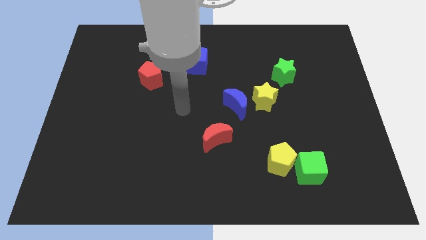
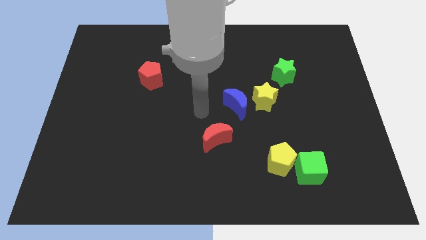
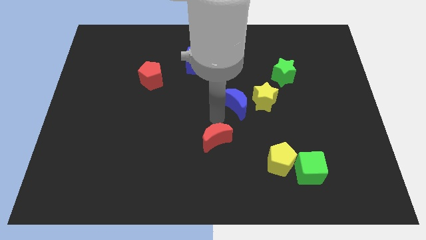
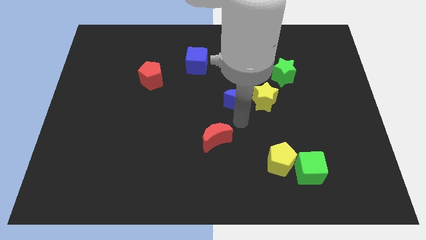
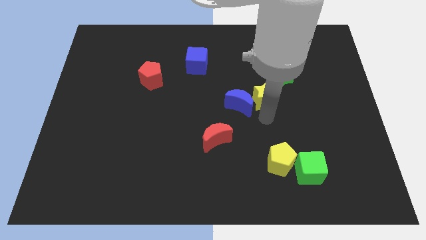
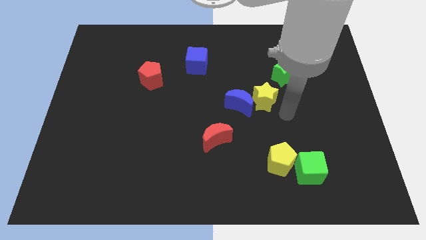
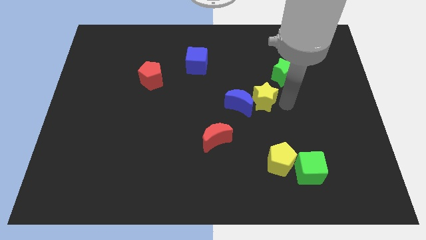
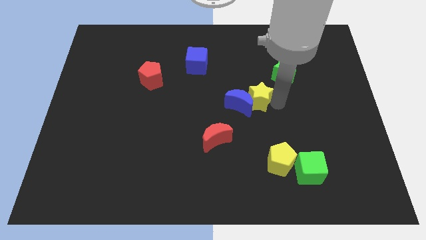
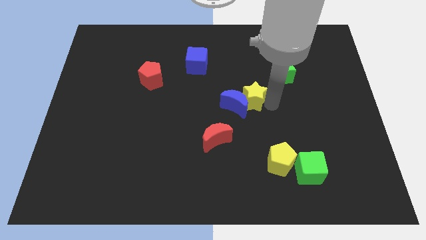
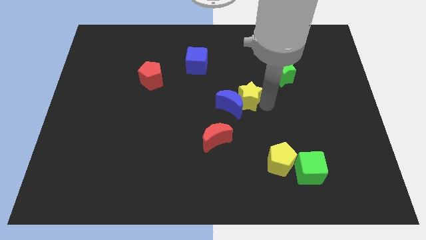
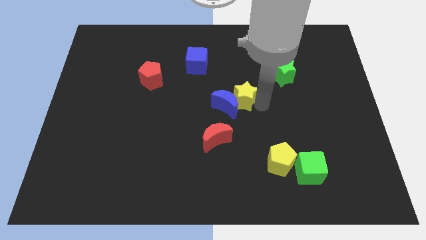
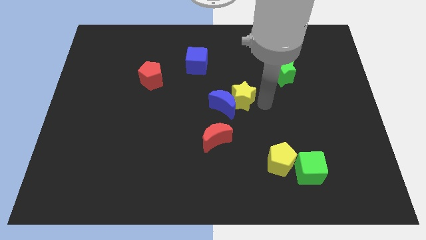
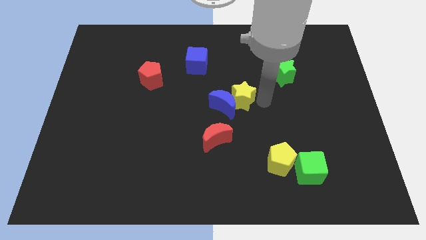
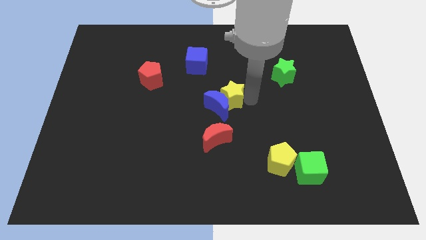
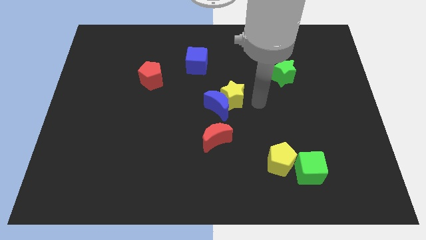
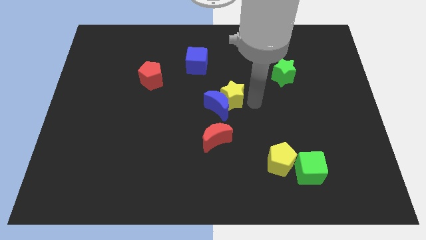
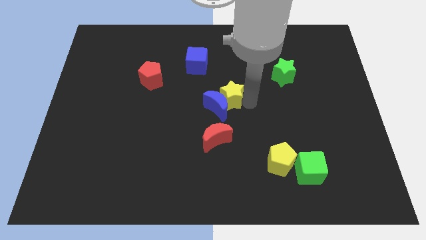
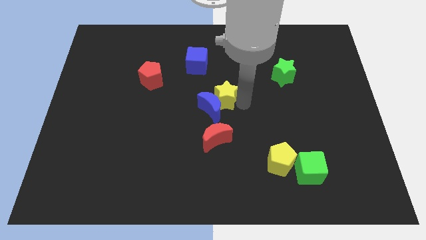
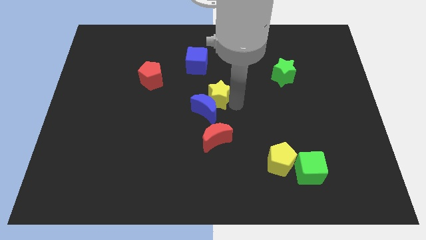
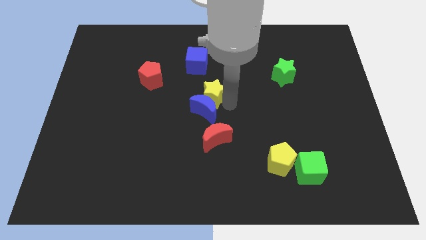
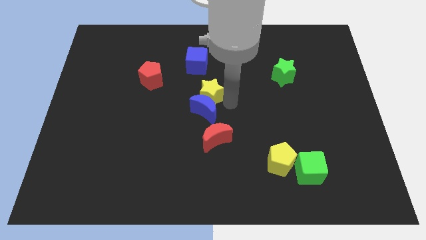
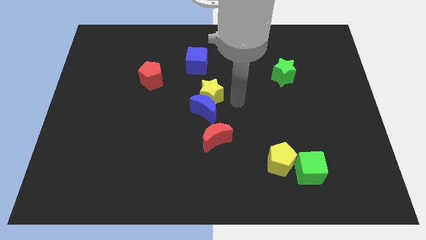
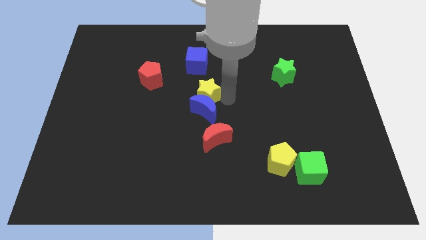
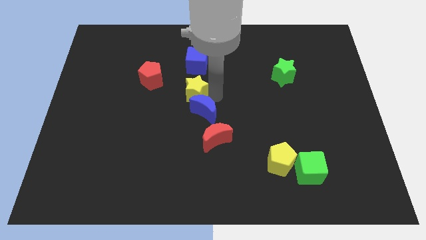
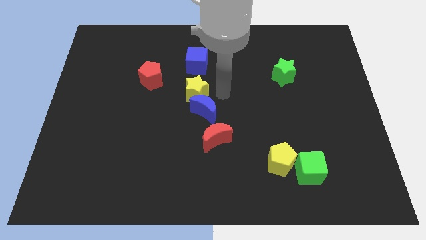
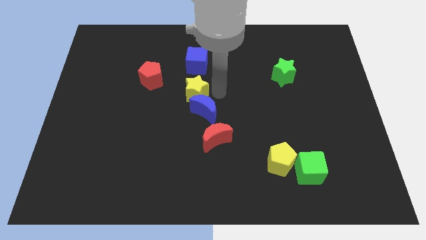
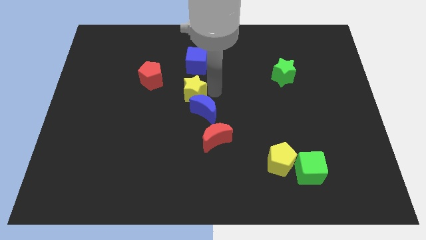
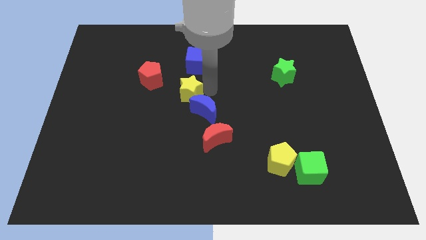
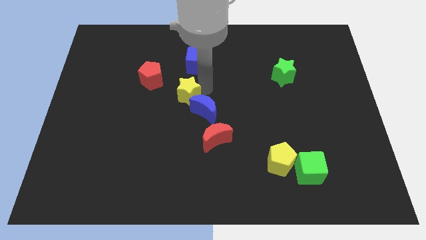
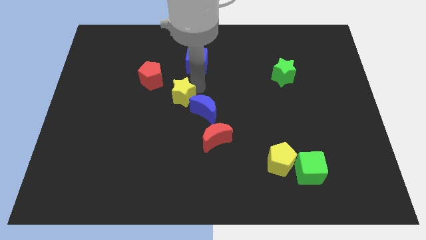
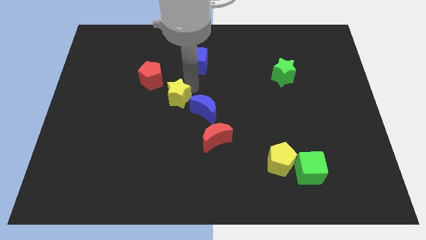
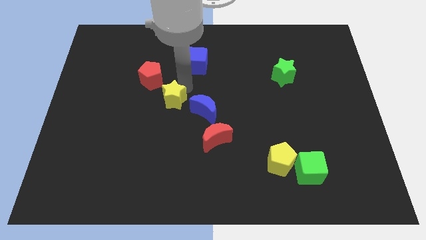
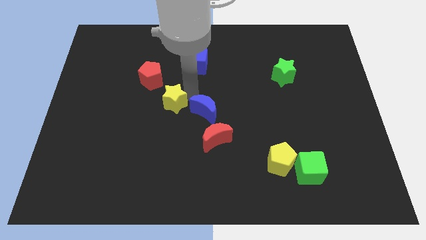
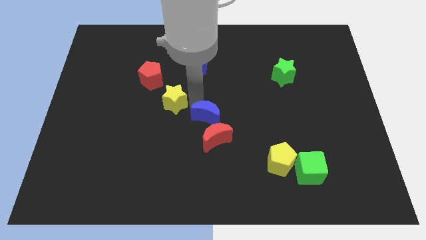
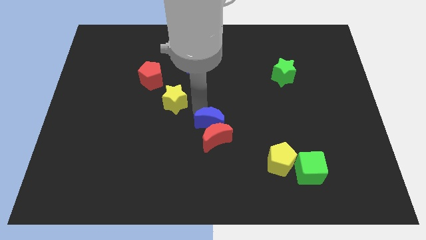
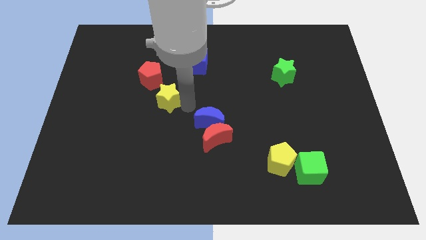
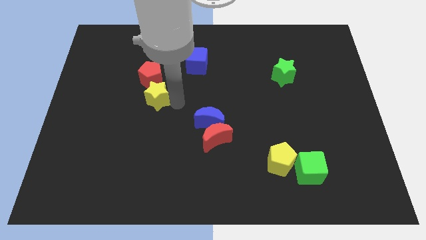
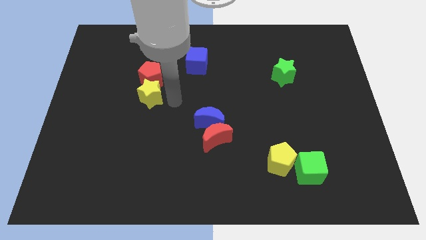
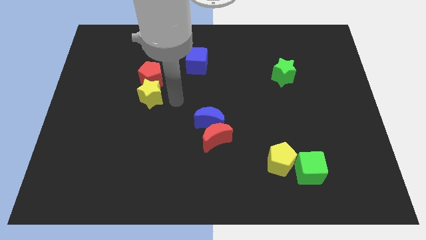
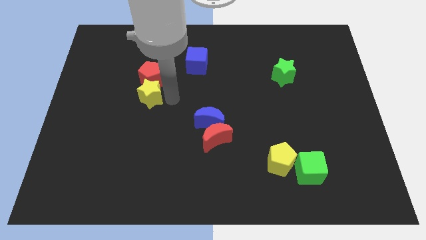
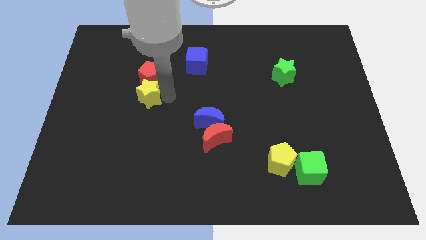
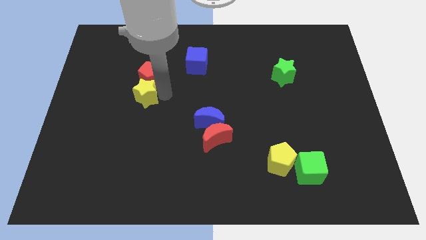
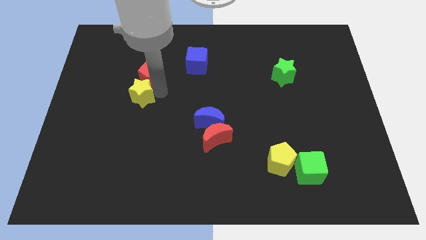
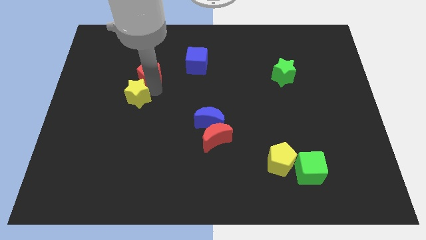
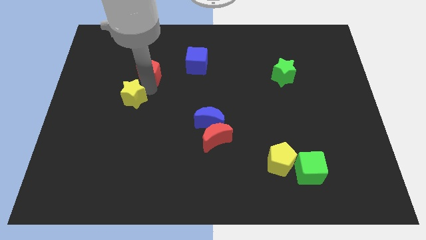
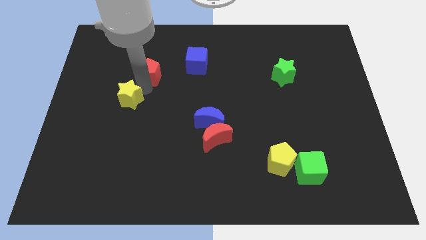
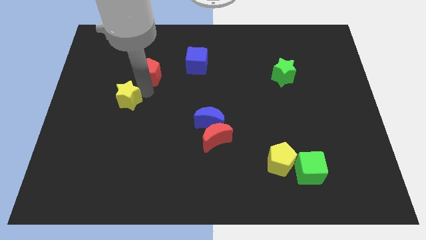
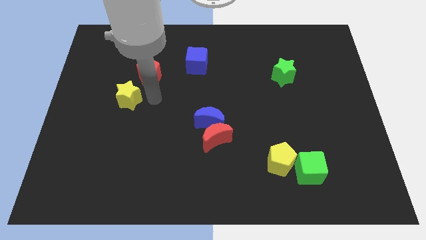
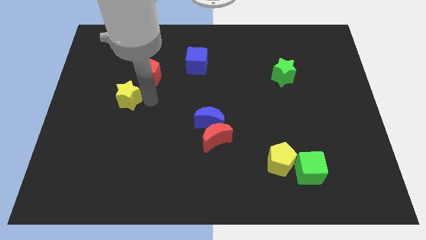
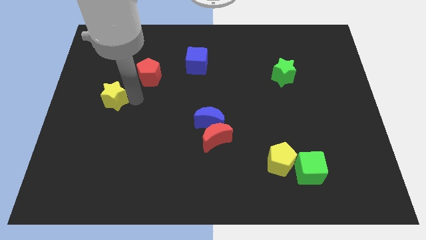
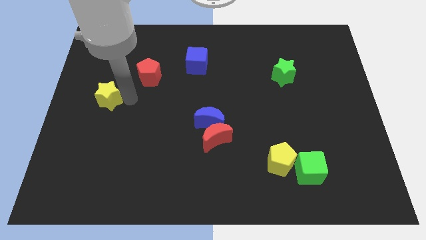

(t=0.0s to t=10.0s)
move the yellow star to the left side of the board

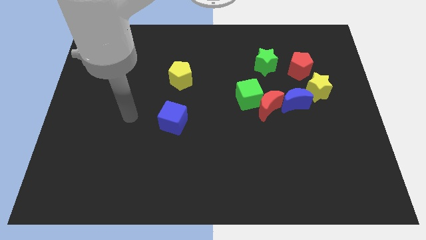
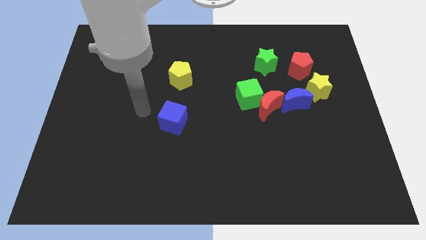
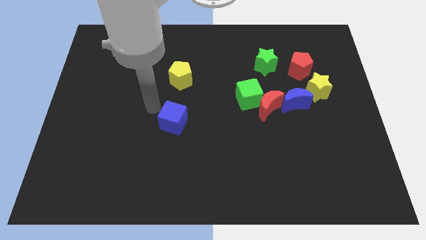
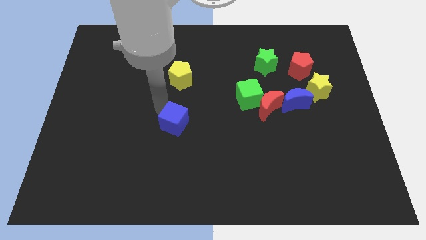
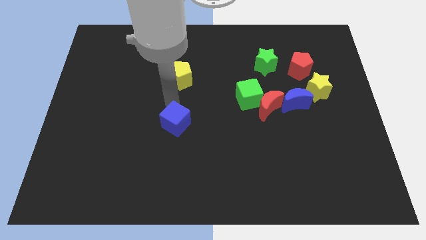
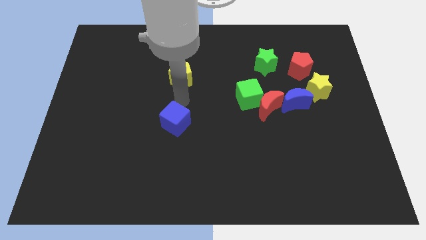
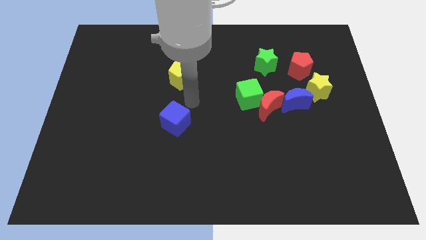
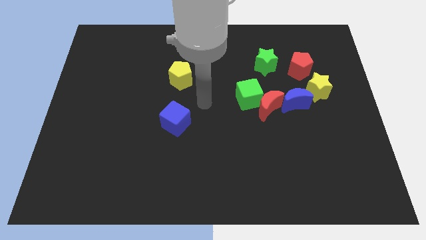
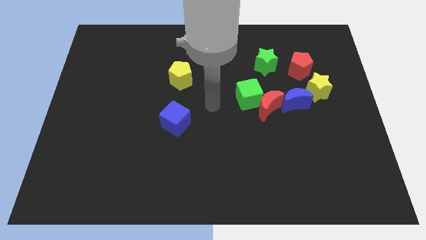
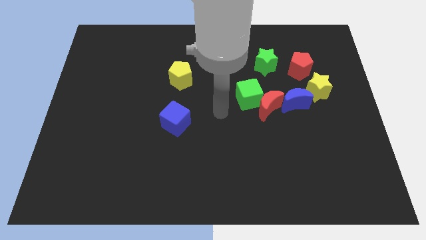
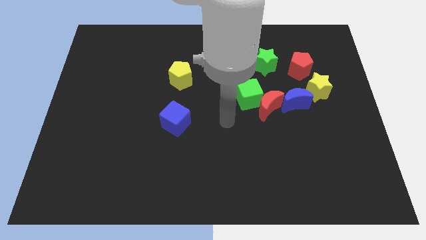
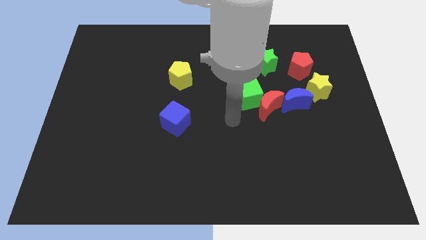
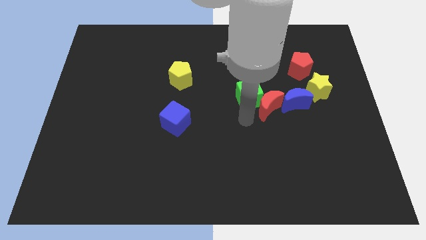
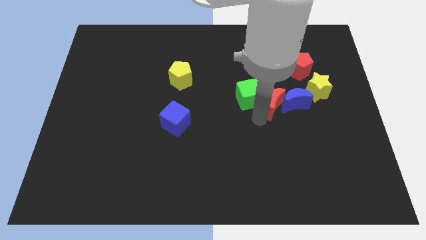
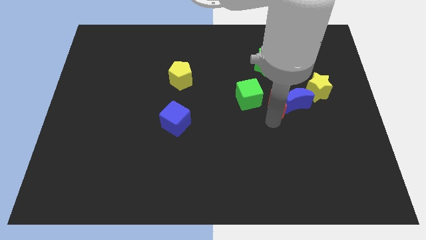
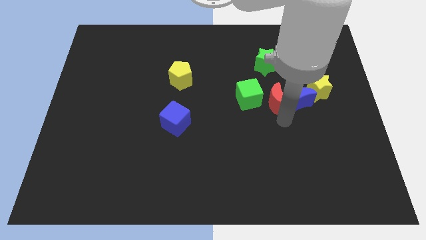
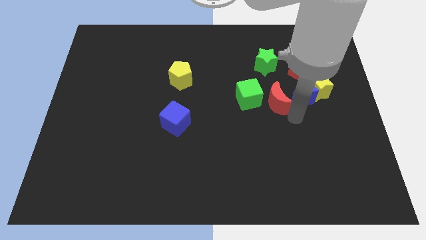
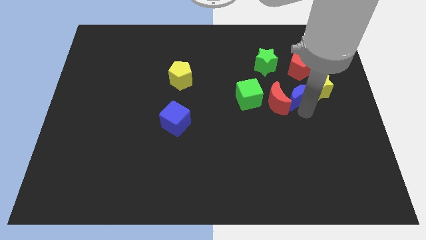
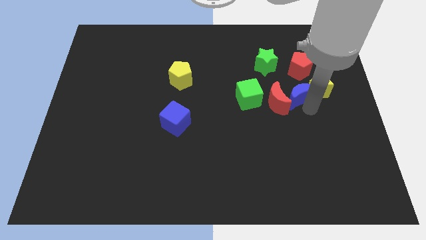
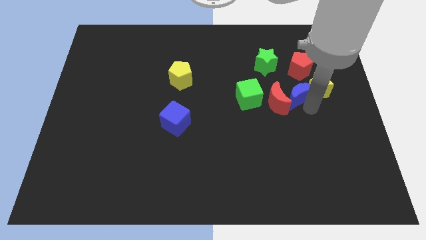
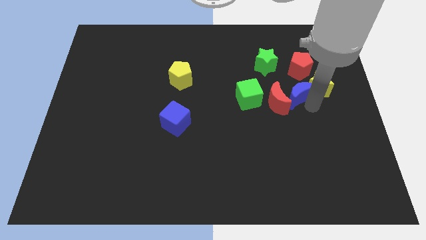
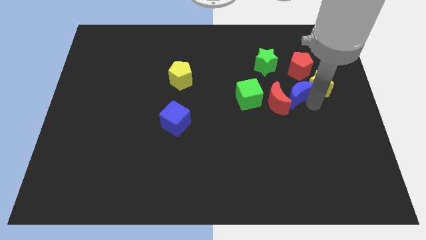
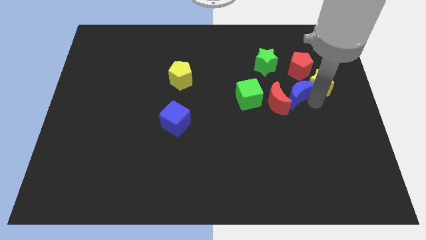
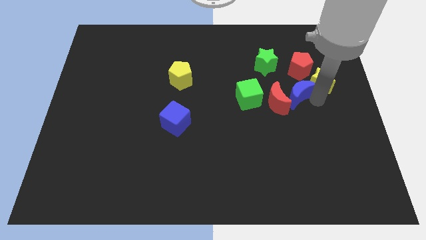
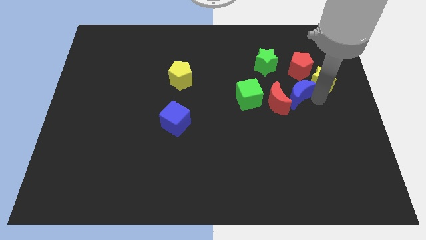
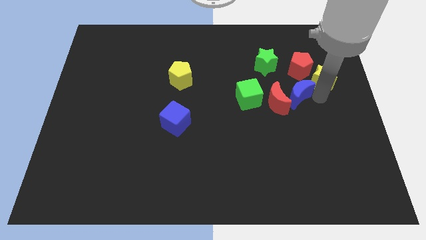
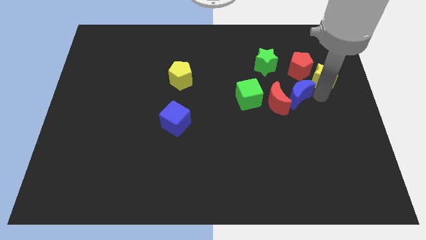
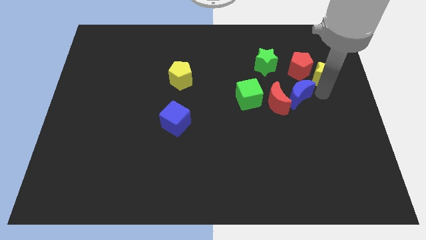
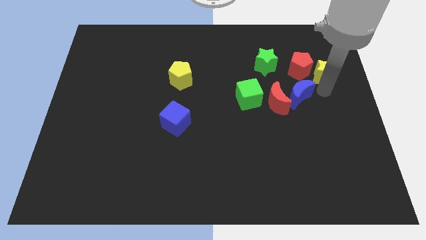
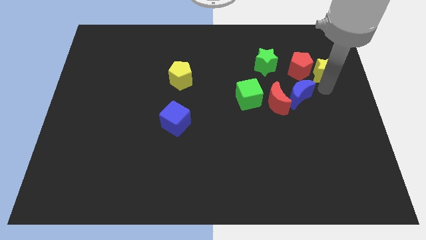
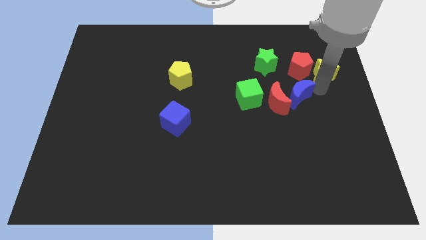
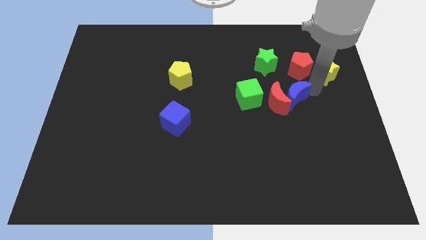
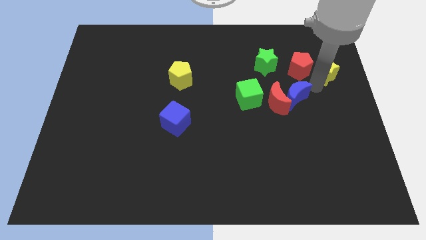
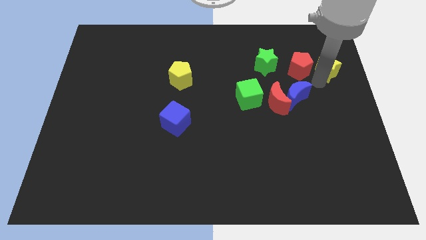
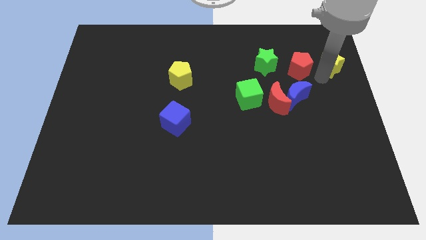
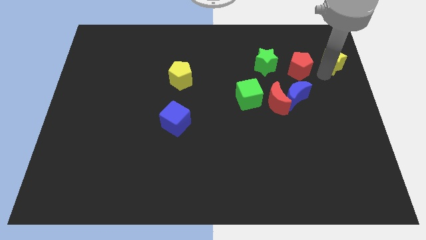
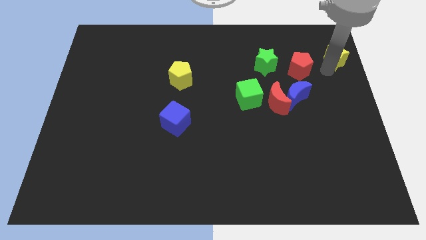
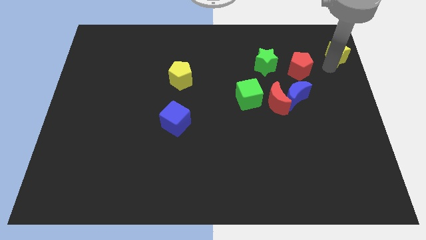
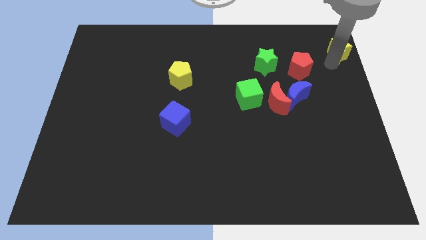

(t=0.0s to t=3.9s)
put the yellow star to the top right
